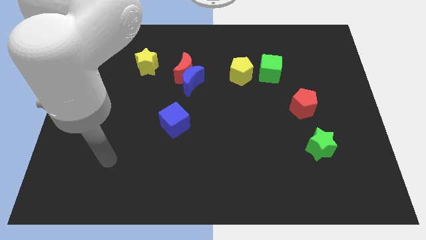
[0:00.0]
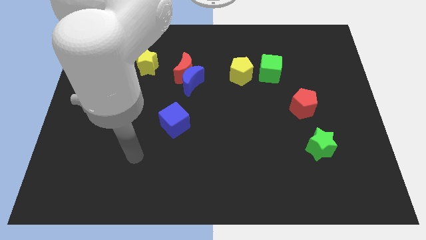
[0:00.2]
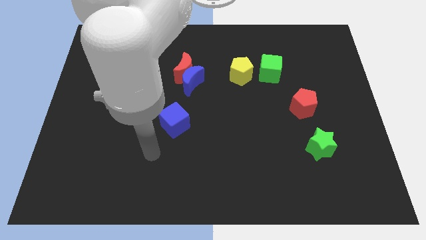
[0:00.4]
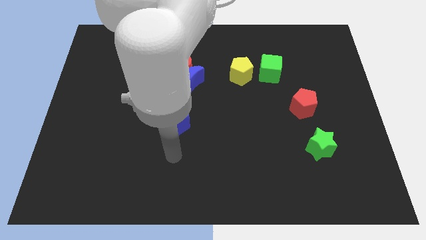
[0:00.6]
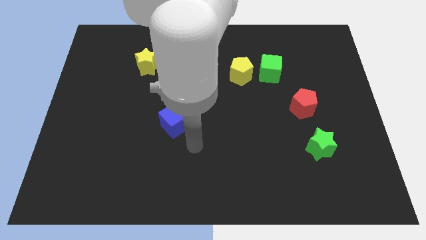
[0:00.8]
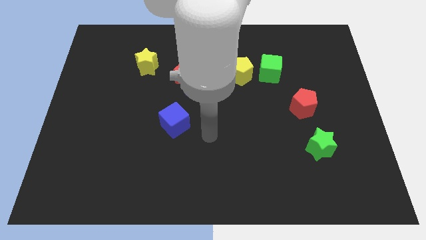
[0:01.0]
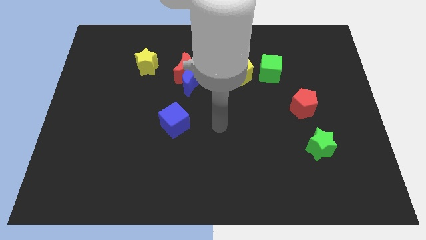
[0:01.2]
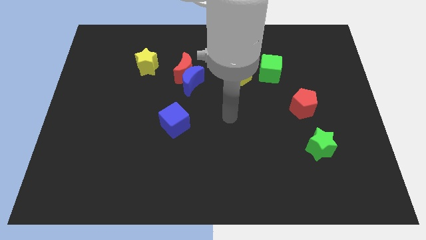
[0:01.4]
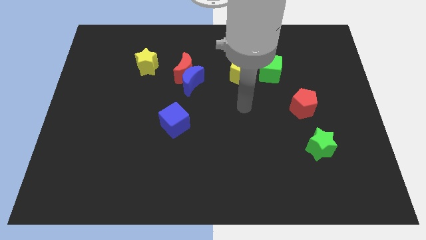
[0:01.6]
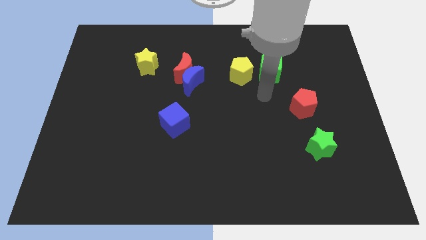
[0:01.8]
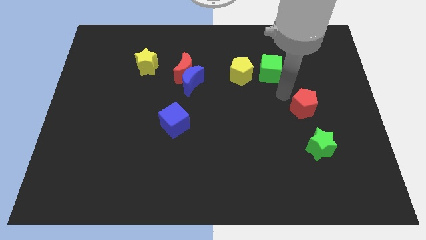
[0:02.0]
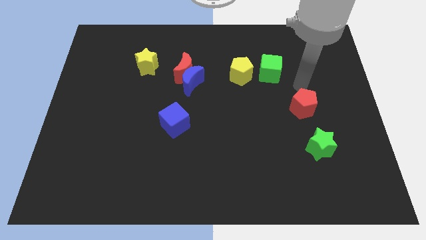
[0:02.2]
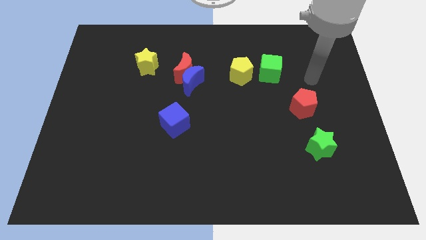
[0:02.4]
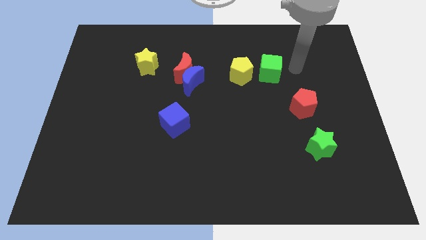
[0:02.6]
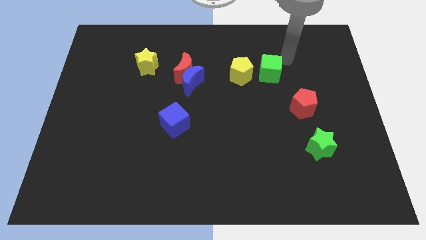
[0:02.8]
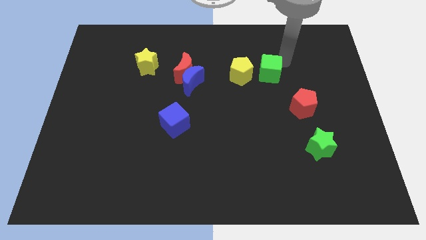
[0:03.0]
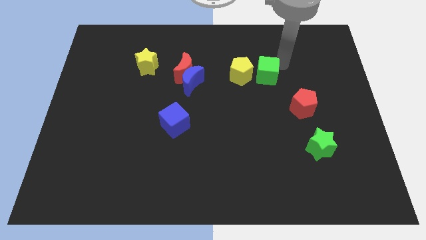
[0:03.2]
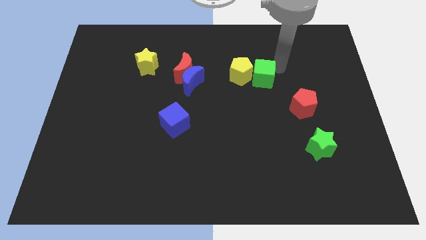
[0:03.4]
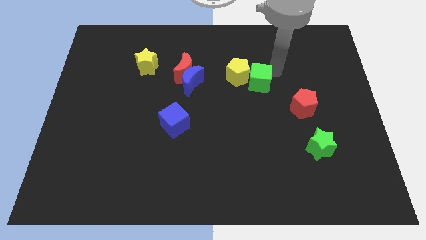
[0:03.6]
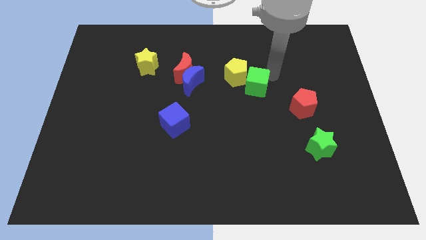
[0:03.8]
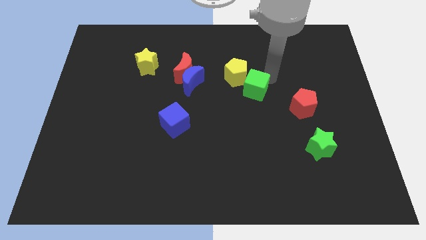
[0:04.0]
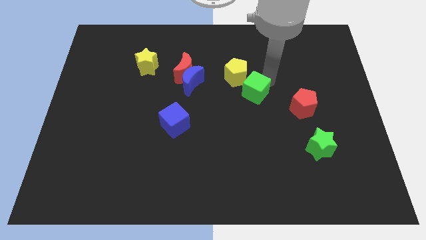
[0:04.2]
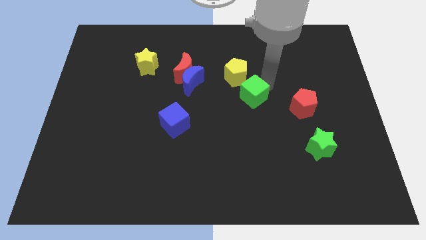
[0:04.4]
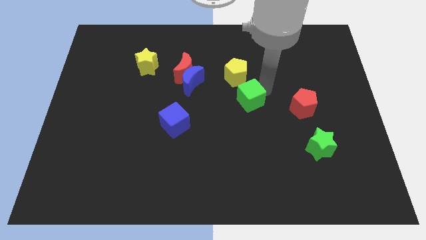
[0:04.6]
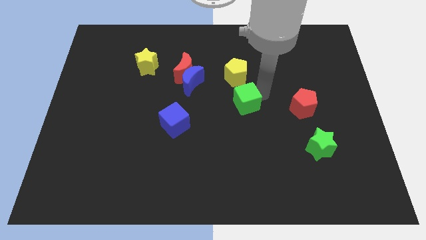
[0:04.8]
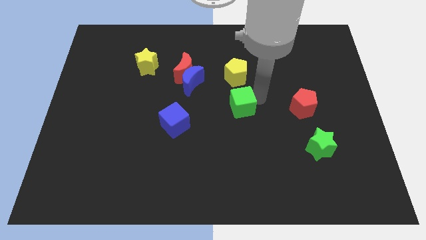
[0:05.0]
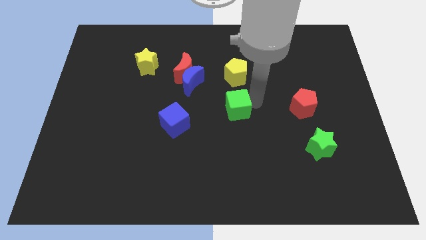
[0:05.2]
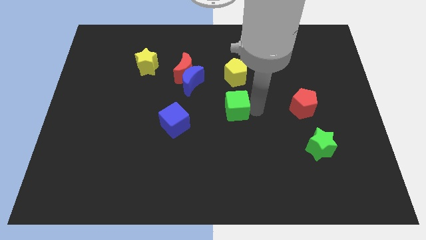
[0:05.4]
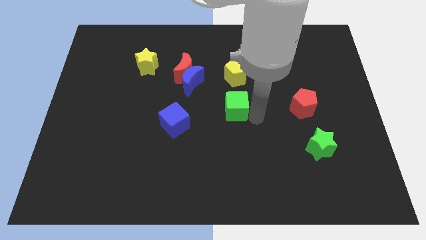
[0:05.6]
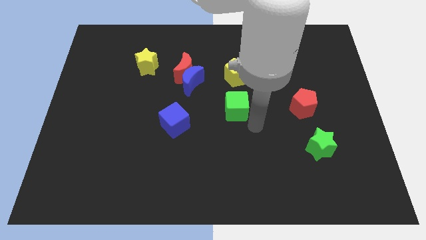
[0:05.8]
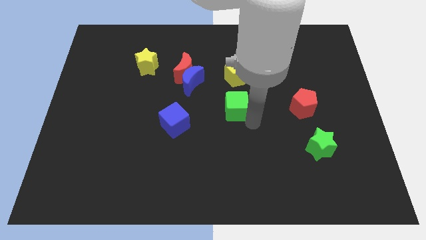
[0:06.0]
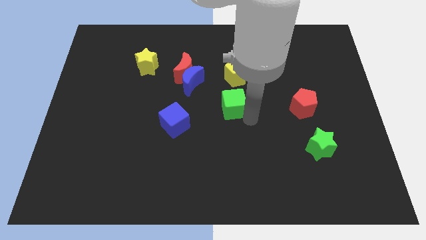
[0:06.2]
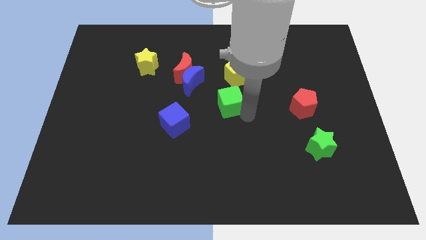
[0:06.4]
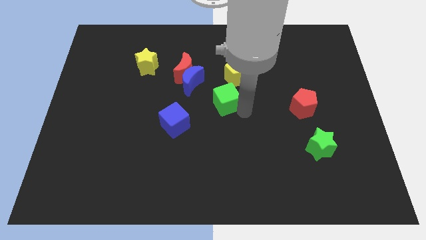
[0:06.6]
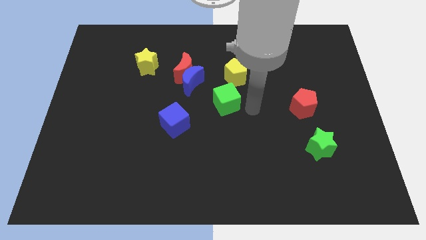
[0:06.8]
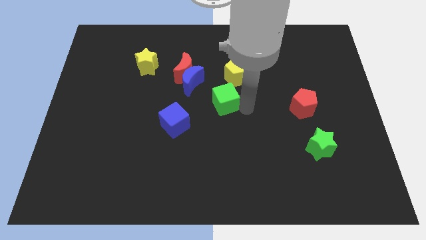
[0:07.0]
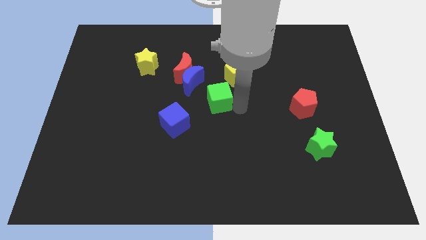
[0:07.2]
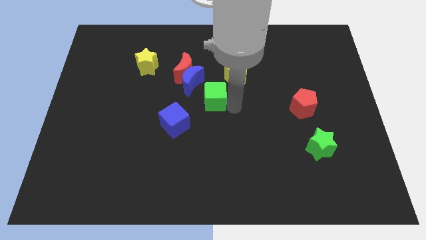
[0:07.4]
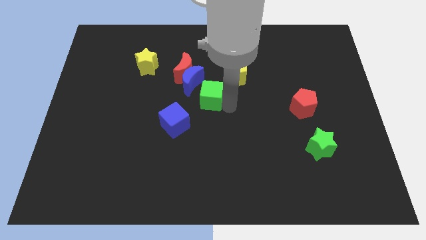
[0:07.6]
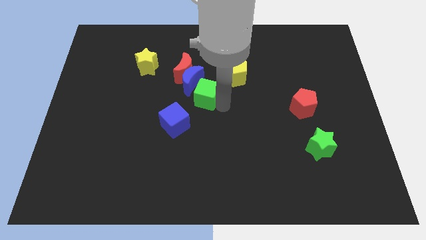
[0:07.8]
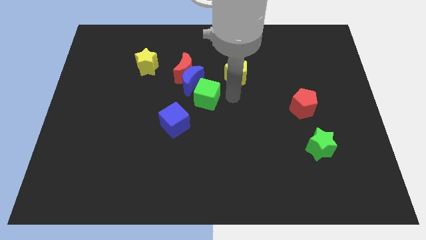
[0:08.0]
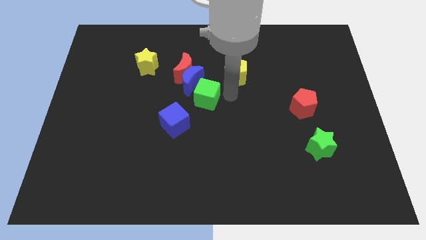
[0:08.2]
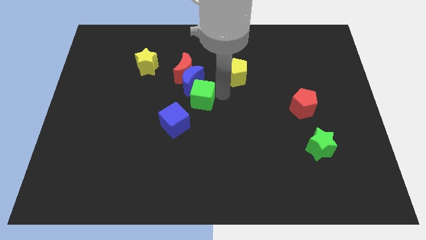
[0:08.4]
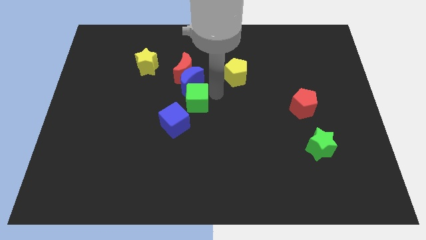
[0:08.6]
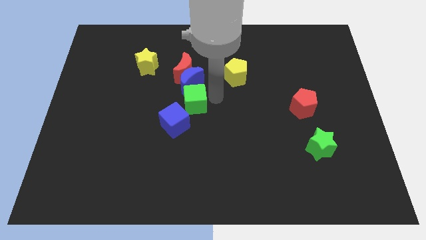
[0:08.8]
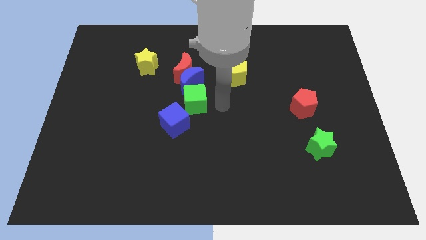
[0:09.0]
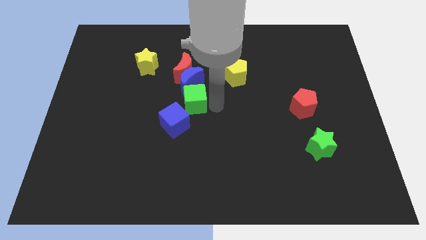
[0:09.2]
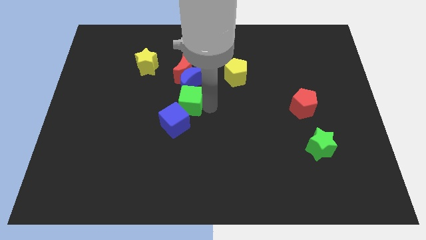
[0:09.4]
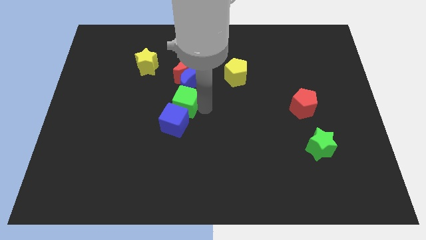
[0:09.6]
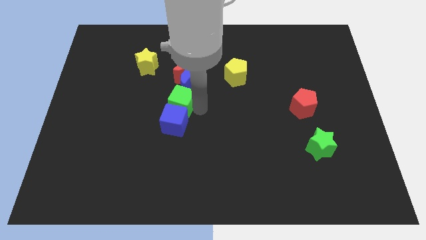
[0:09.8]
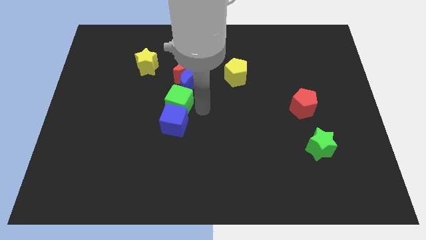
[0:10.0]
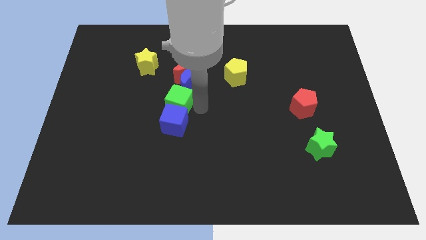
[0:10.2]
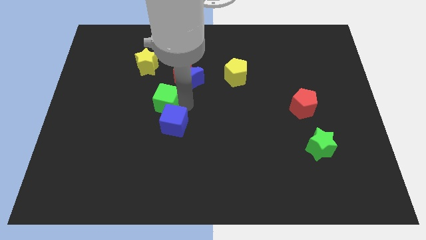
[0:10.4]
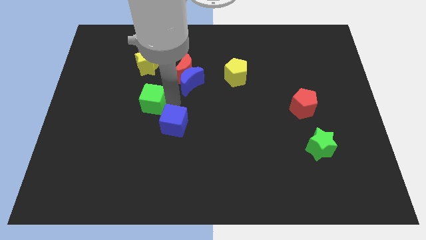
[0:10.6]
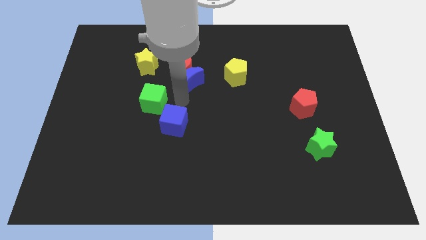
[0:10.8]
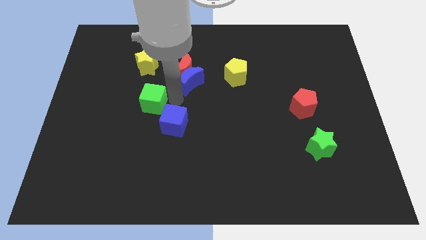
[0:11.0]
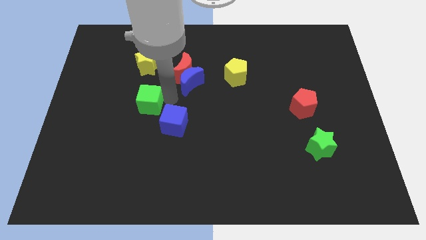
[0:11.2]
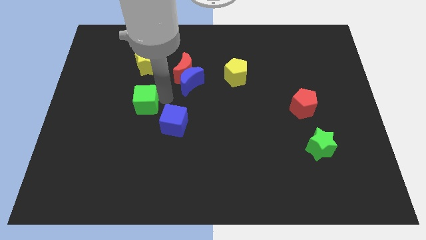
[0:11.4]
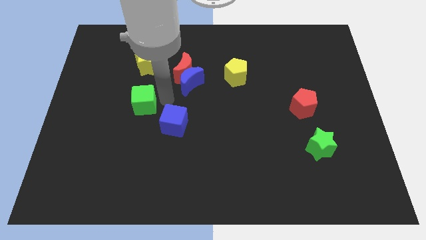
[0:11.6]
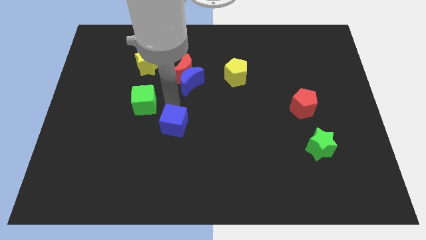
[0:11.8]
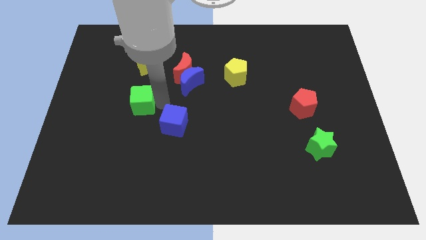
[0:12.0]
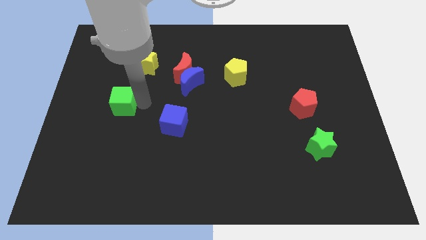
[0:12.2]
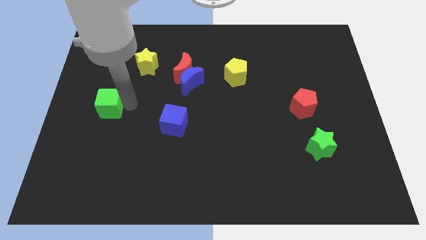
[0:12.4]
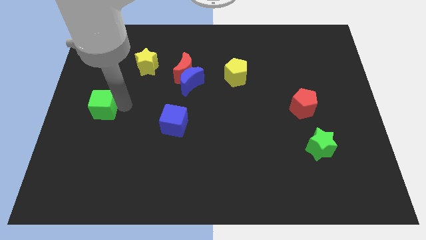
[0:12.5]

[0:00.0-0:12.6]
put the green cube to the center left
